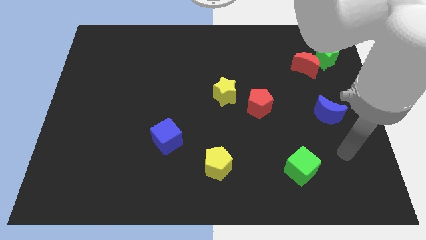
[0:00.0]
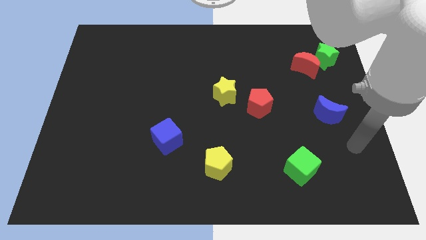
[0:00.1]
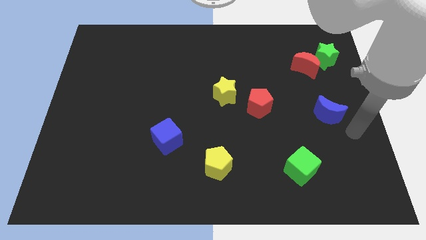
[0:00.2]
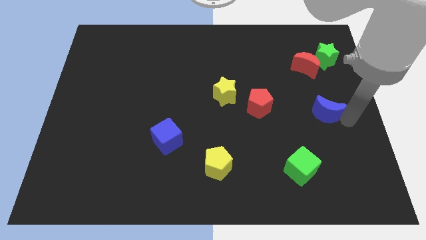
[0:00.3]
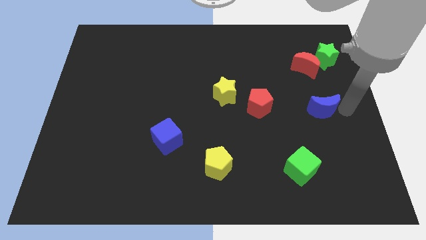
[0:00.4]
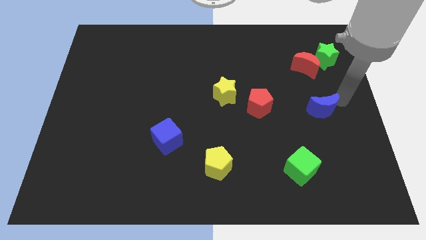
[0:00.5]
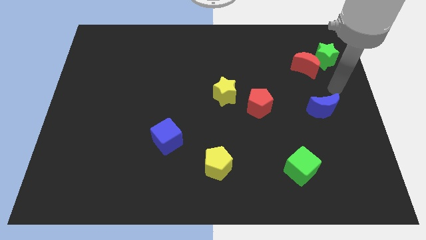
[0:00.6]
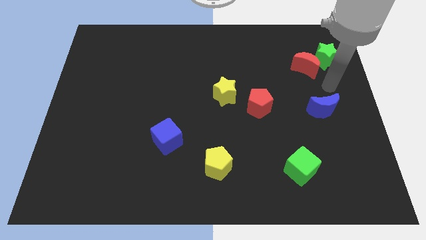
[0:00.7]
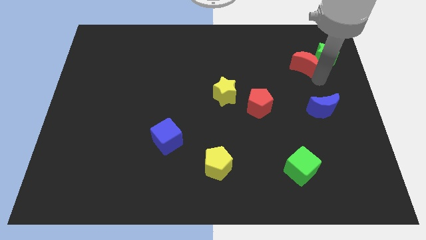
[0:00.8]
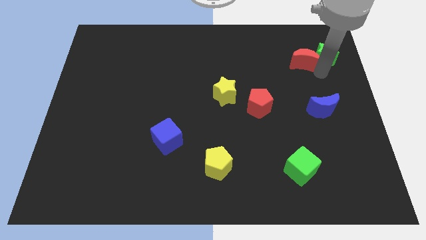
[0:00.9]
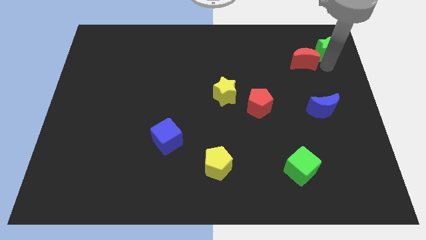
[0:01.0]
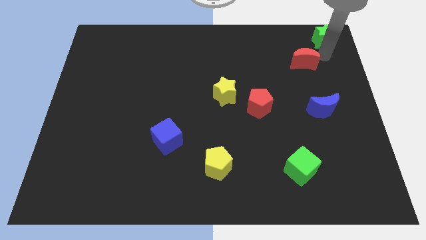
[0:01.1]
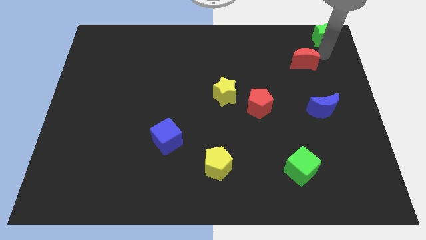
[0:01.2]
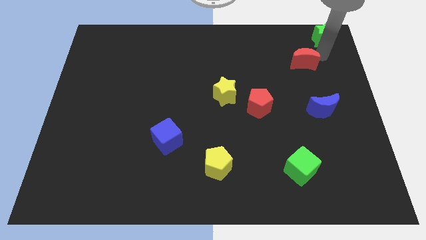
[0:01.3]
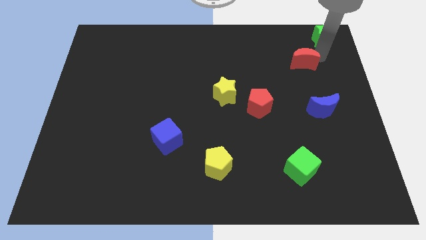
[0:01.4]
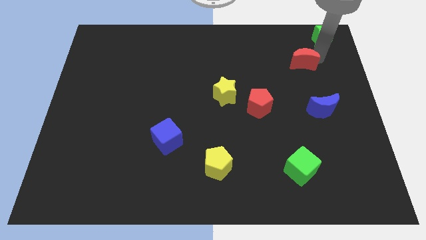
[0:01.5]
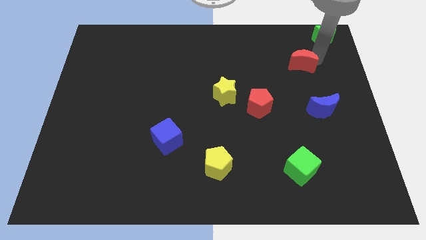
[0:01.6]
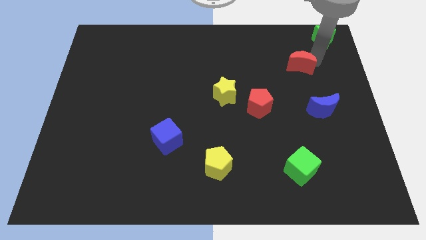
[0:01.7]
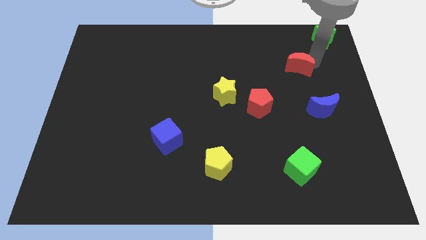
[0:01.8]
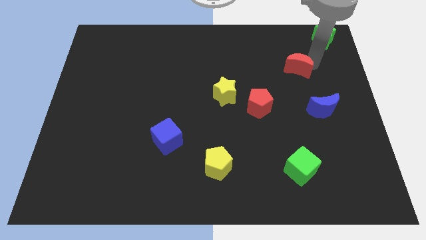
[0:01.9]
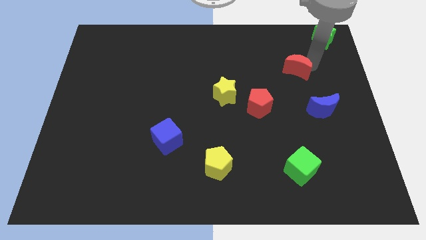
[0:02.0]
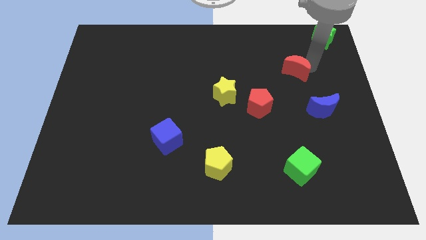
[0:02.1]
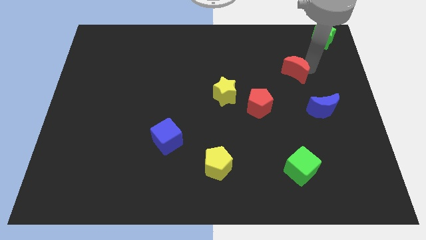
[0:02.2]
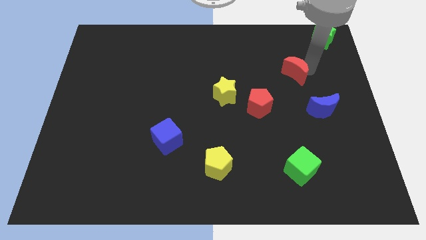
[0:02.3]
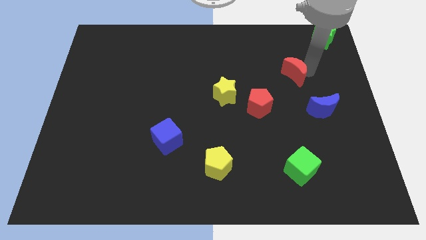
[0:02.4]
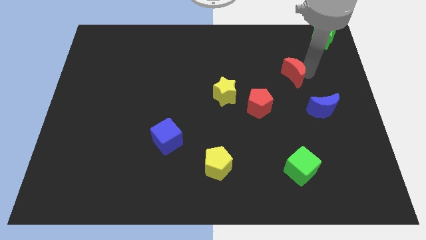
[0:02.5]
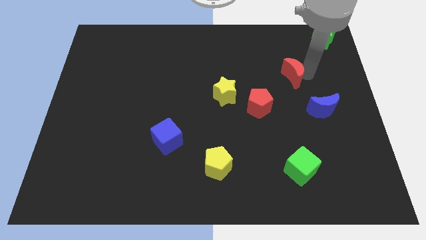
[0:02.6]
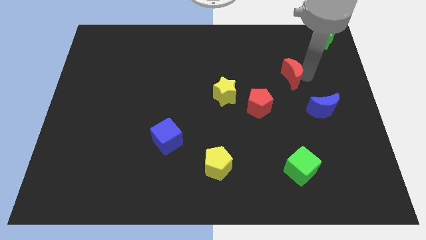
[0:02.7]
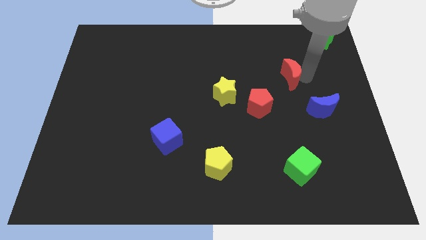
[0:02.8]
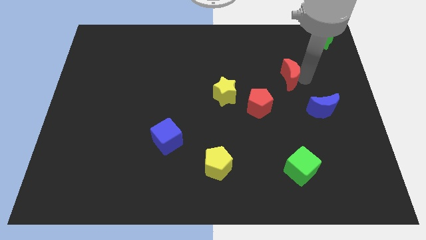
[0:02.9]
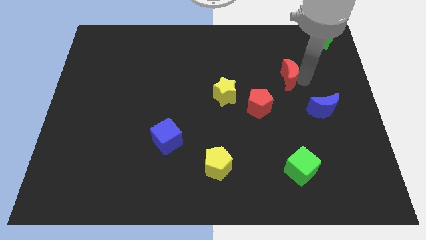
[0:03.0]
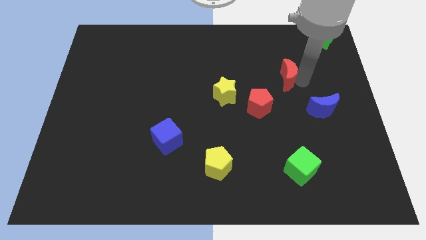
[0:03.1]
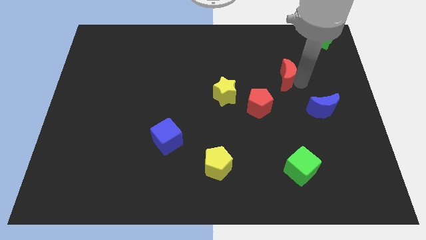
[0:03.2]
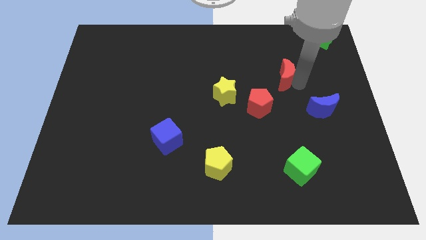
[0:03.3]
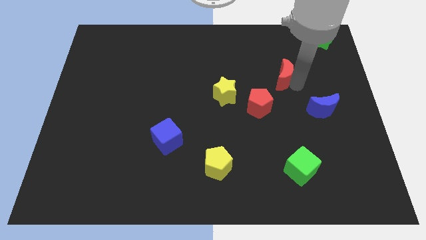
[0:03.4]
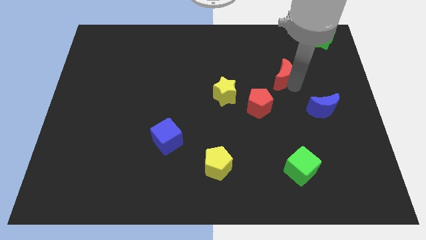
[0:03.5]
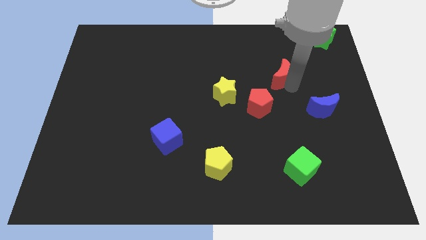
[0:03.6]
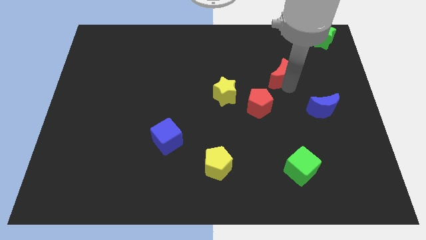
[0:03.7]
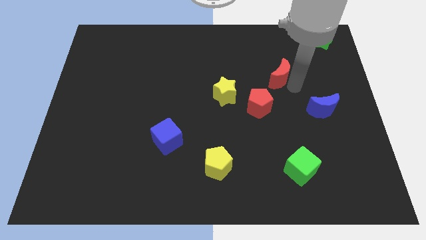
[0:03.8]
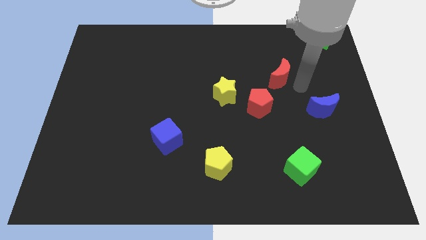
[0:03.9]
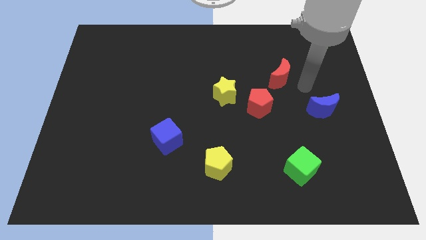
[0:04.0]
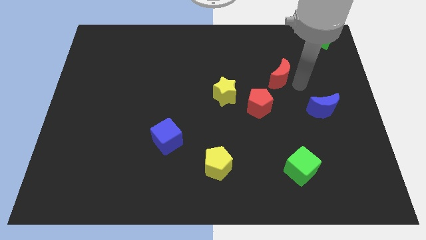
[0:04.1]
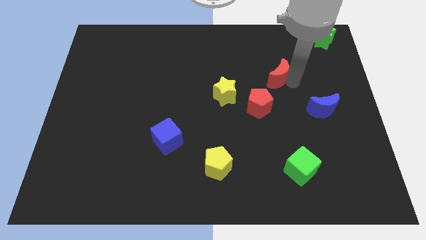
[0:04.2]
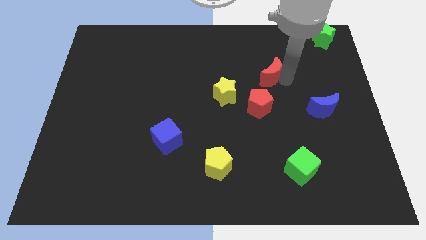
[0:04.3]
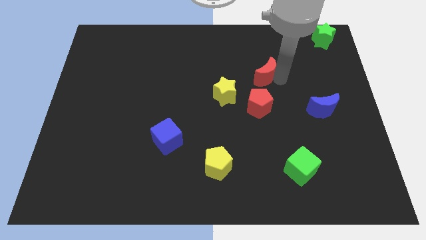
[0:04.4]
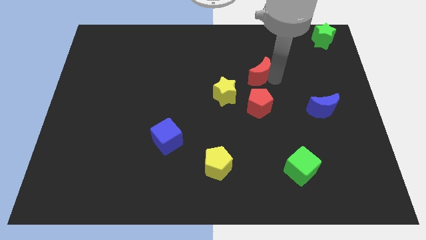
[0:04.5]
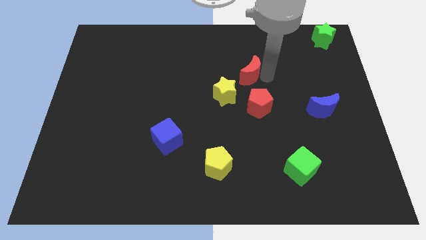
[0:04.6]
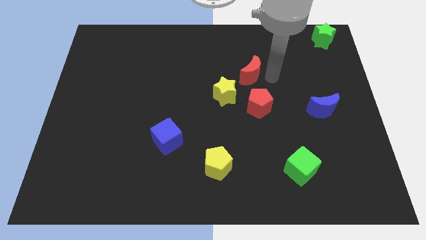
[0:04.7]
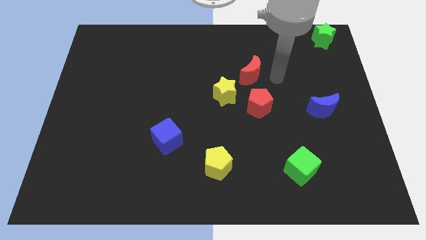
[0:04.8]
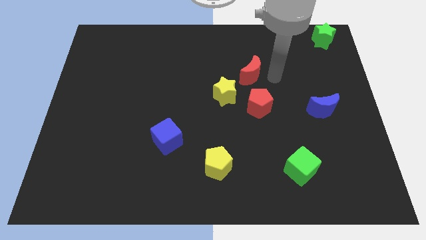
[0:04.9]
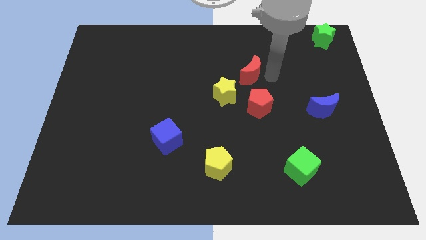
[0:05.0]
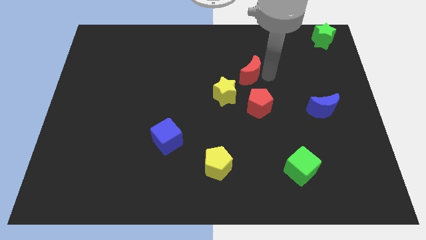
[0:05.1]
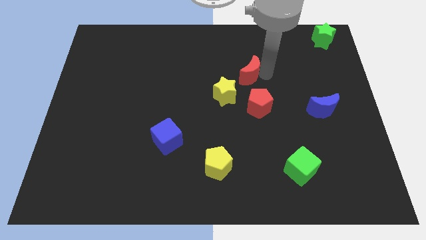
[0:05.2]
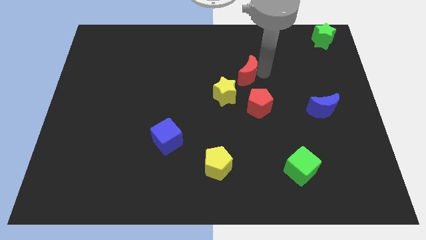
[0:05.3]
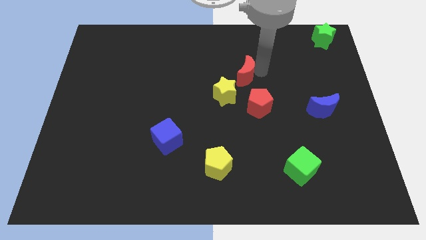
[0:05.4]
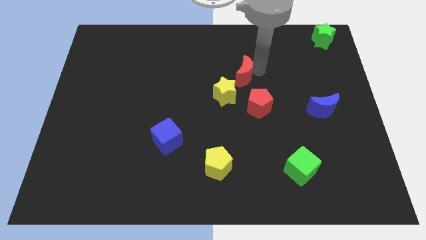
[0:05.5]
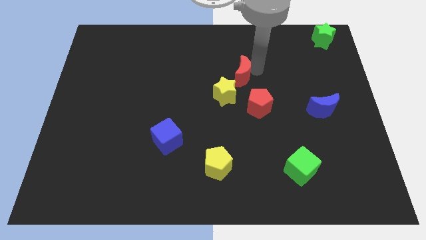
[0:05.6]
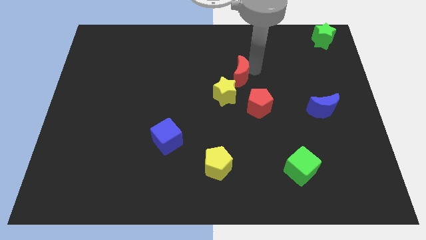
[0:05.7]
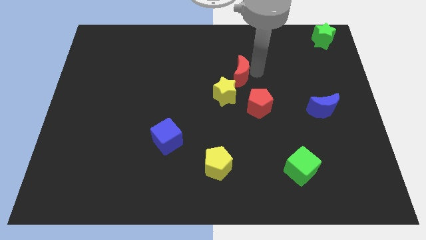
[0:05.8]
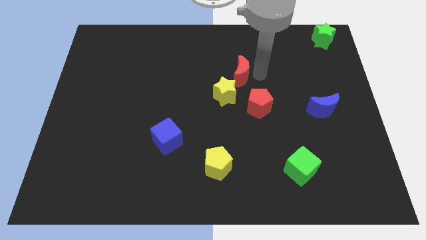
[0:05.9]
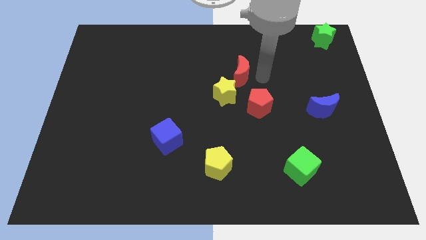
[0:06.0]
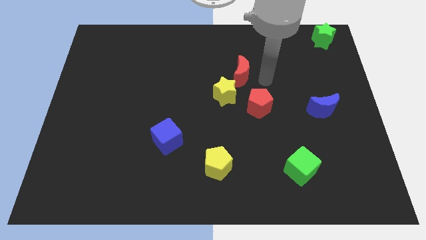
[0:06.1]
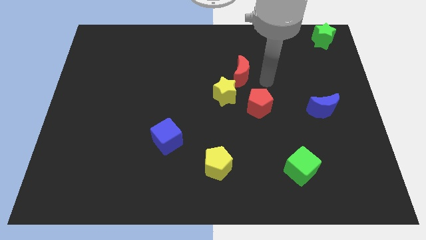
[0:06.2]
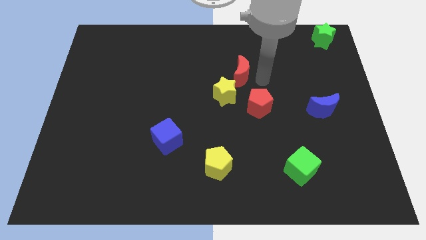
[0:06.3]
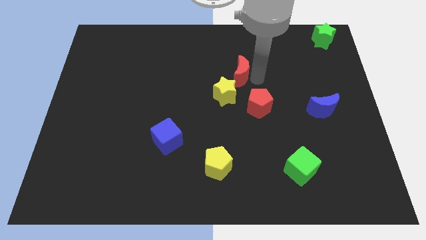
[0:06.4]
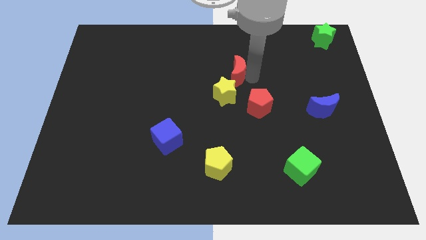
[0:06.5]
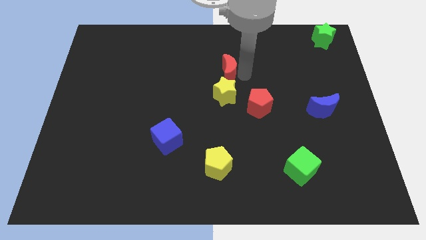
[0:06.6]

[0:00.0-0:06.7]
slide the red moon left

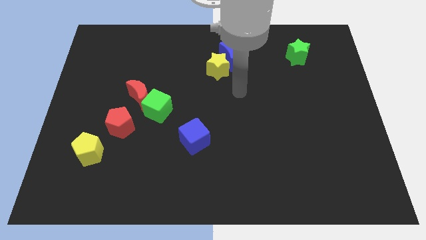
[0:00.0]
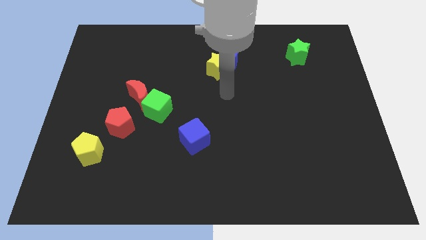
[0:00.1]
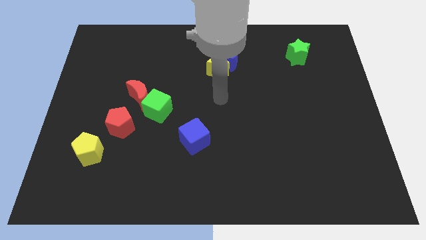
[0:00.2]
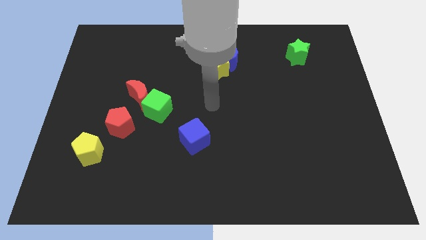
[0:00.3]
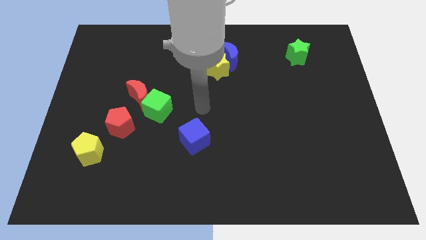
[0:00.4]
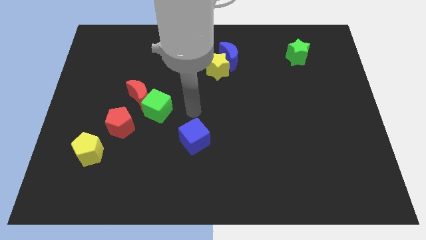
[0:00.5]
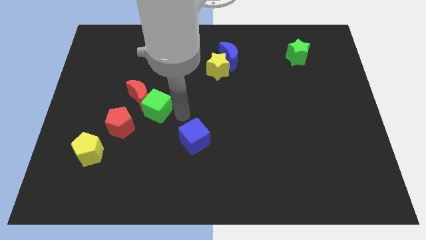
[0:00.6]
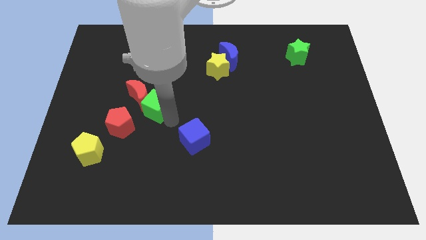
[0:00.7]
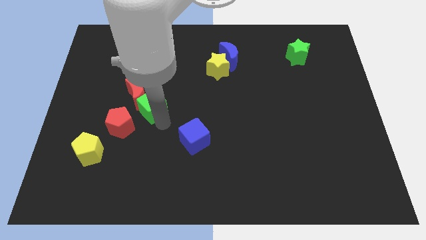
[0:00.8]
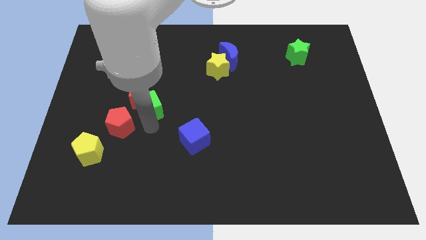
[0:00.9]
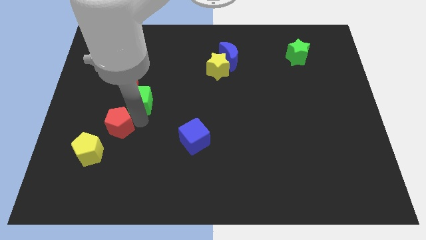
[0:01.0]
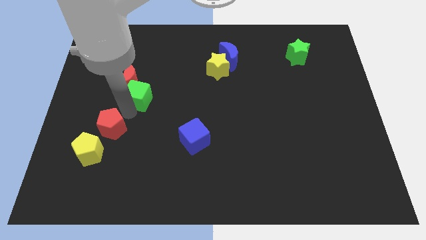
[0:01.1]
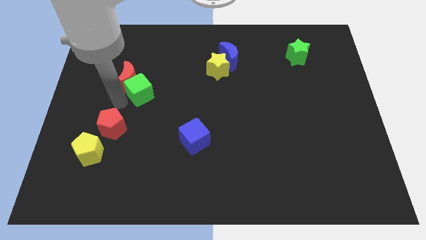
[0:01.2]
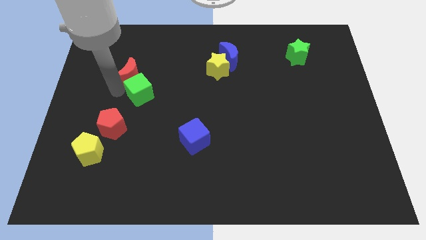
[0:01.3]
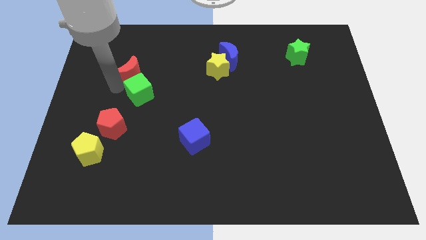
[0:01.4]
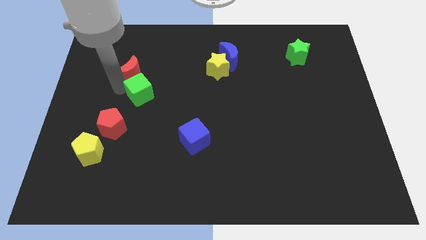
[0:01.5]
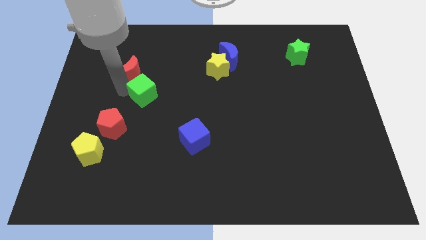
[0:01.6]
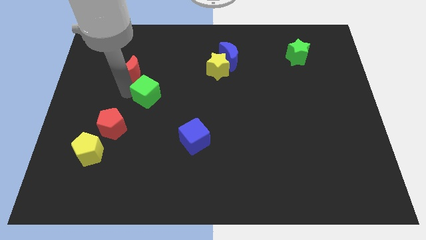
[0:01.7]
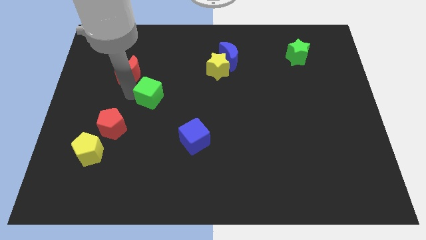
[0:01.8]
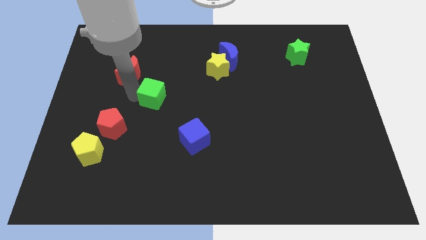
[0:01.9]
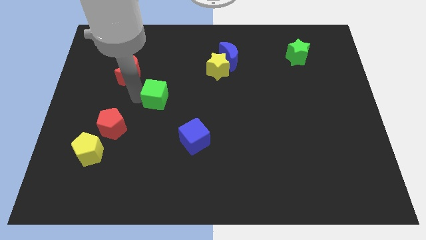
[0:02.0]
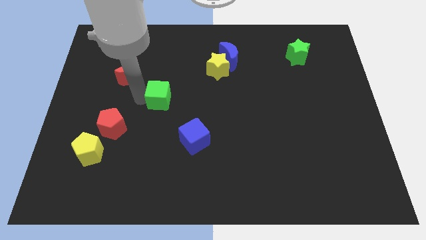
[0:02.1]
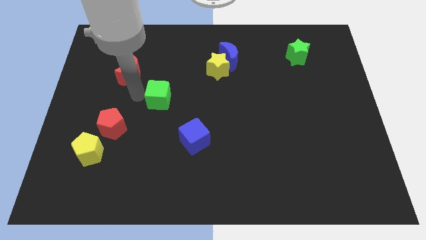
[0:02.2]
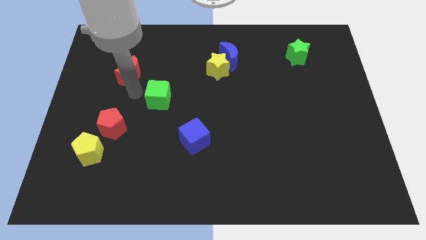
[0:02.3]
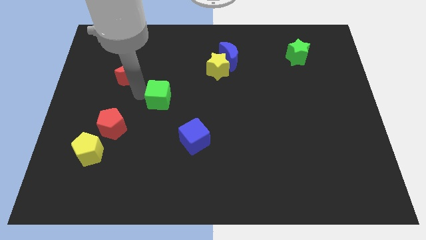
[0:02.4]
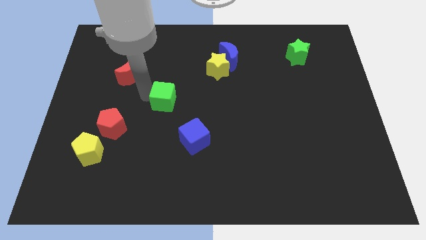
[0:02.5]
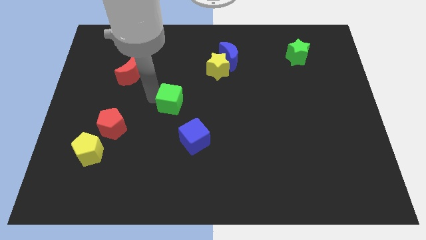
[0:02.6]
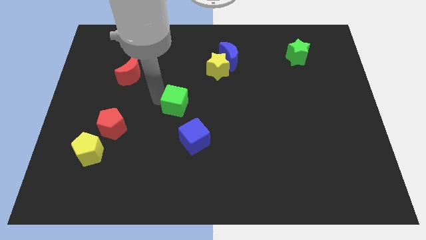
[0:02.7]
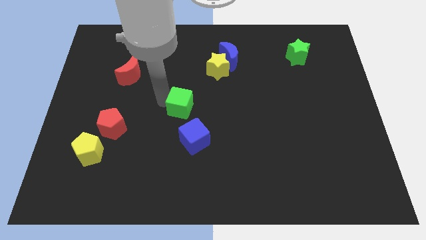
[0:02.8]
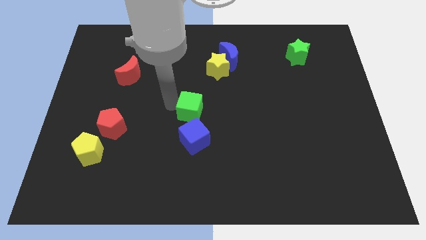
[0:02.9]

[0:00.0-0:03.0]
move the green cube to the right a little
